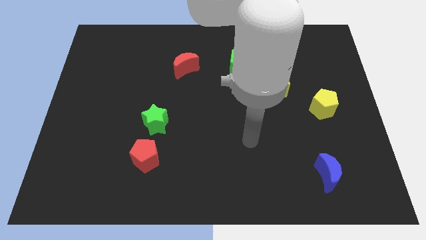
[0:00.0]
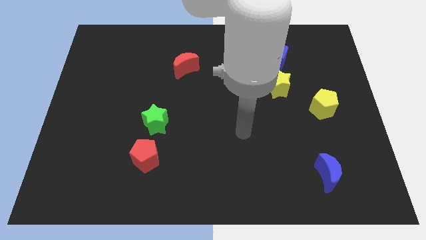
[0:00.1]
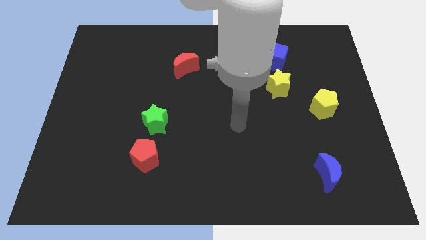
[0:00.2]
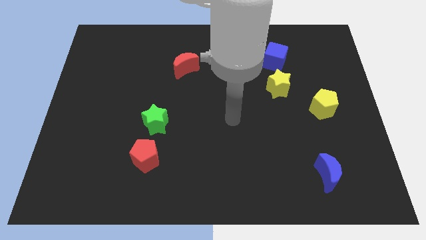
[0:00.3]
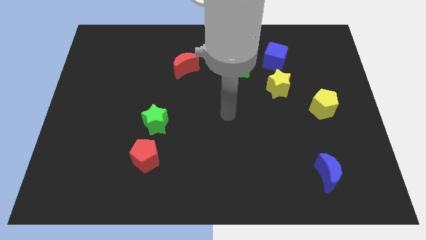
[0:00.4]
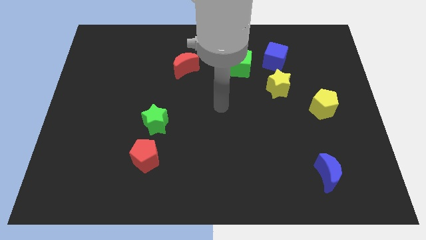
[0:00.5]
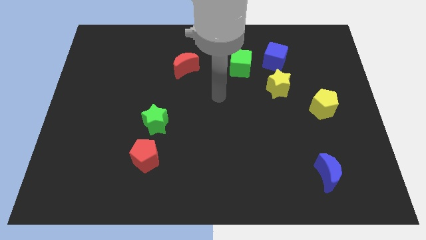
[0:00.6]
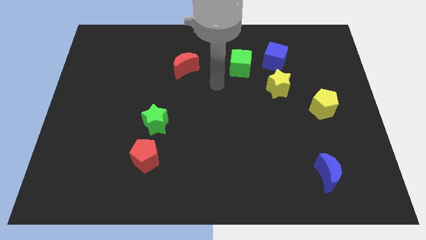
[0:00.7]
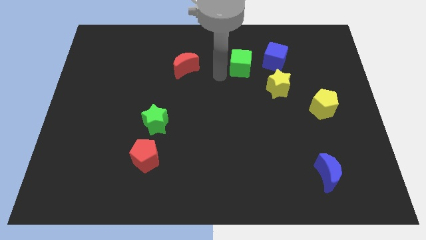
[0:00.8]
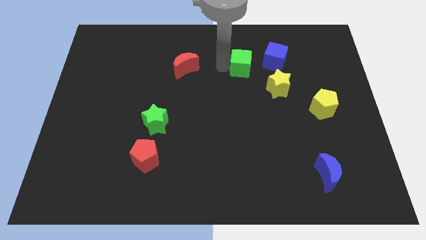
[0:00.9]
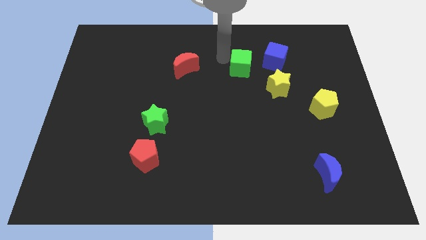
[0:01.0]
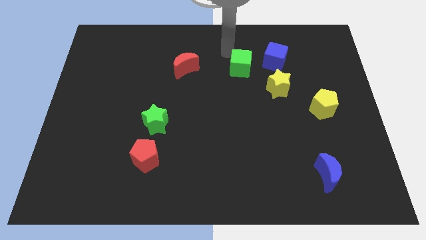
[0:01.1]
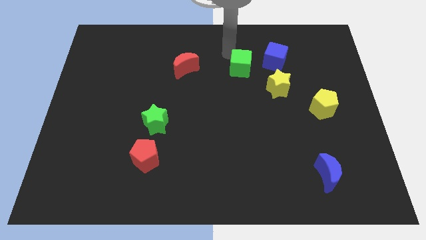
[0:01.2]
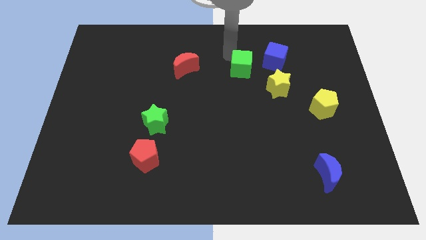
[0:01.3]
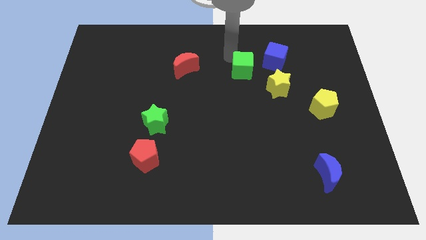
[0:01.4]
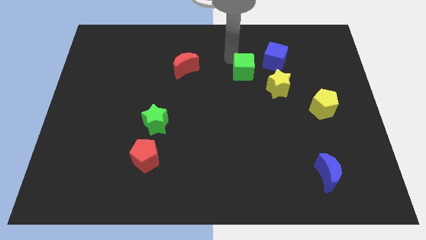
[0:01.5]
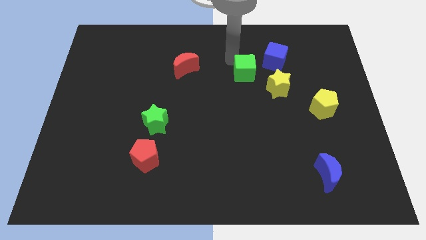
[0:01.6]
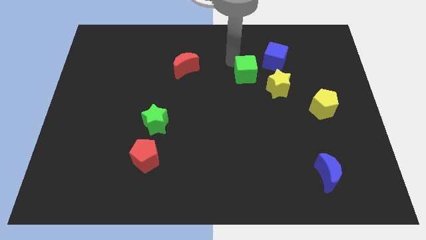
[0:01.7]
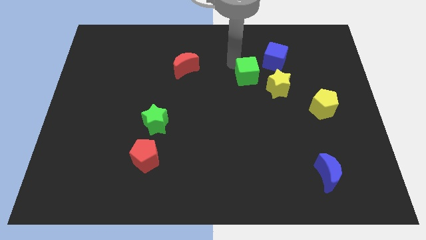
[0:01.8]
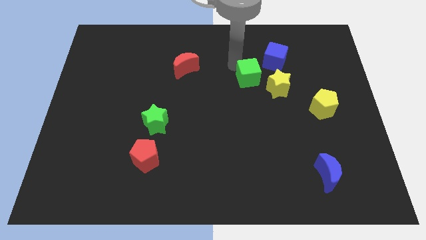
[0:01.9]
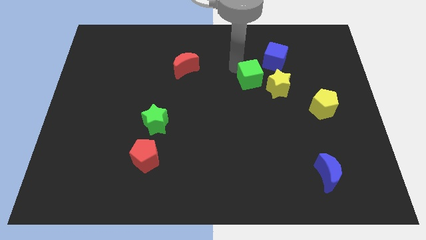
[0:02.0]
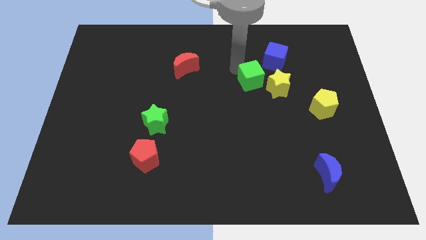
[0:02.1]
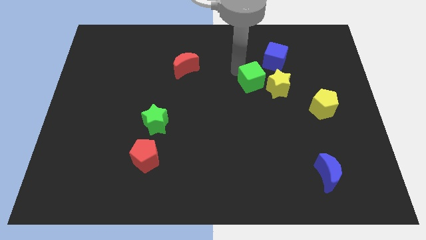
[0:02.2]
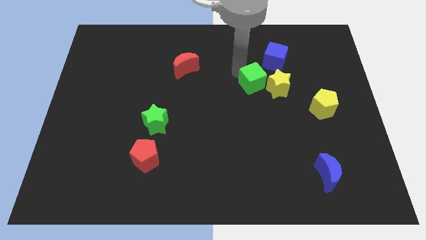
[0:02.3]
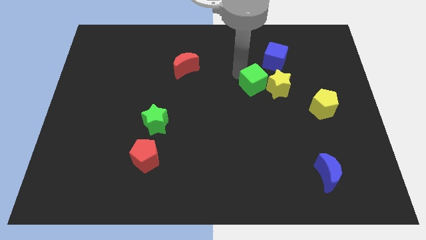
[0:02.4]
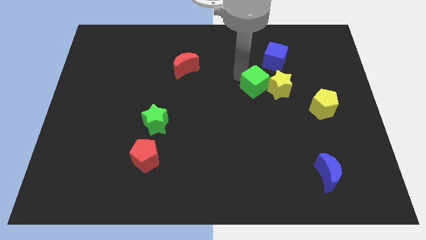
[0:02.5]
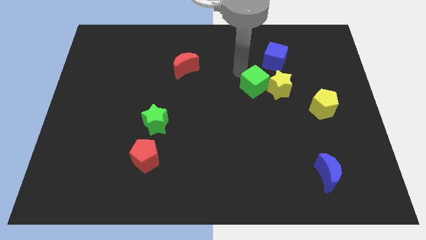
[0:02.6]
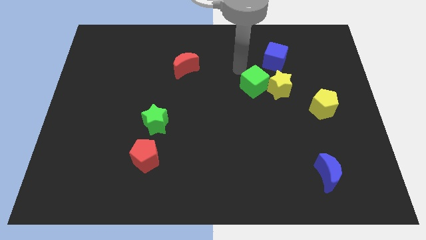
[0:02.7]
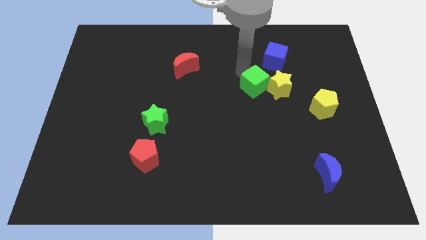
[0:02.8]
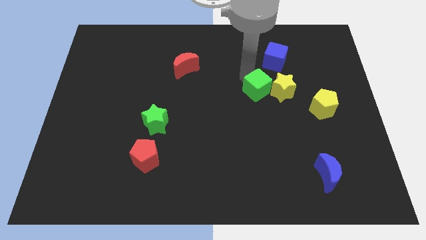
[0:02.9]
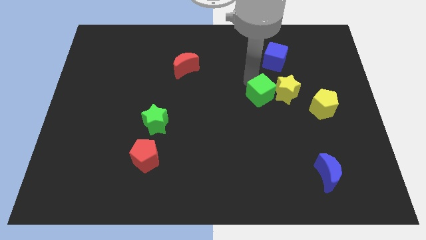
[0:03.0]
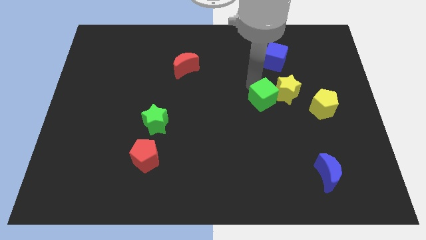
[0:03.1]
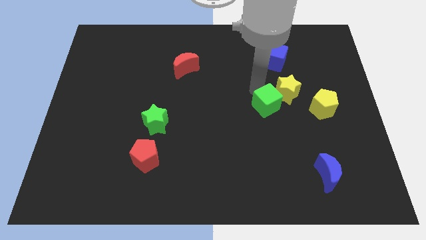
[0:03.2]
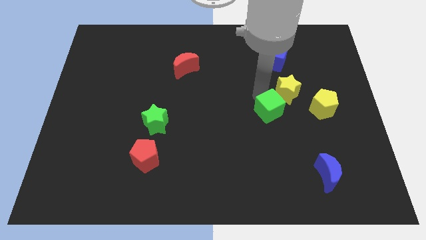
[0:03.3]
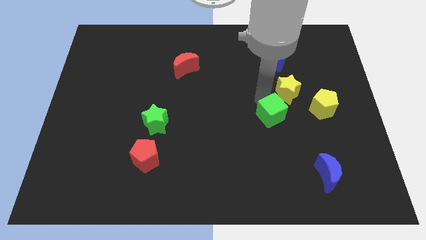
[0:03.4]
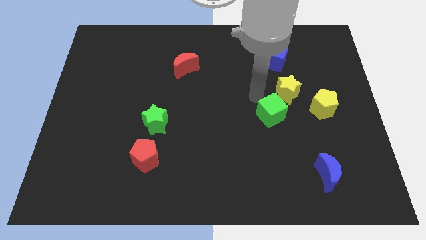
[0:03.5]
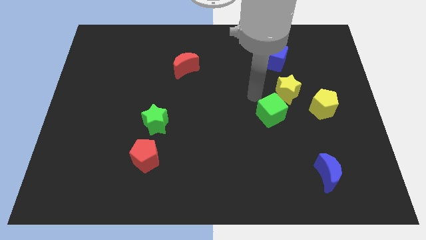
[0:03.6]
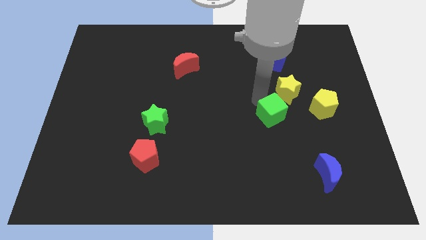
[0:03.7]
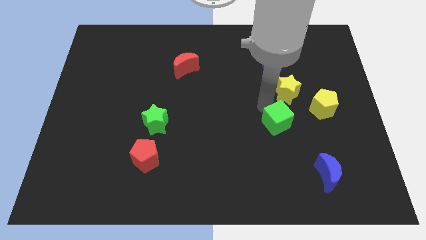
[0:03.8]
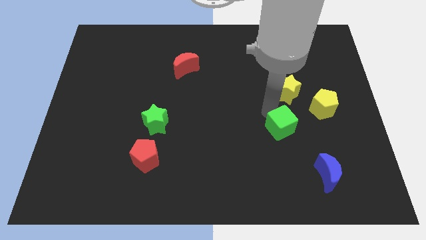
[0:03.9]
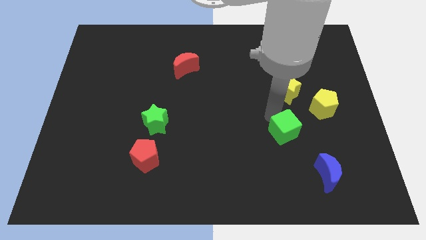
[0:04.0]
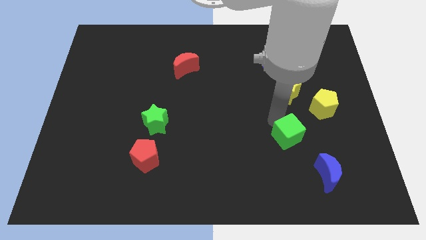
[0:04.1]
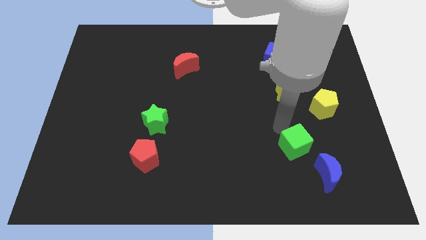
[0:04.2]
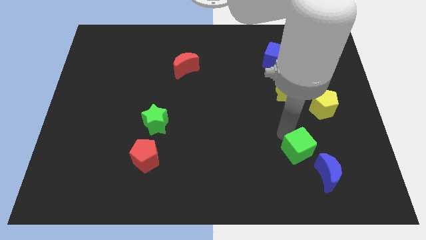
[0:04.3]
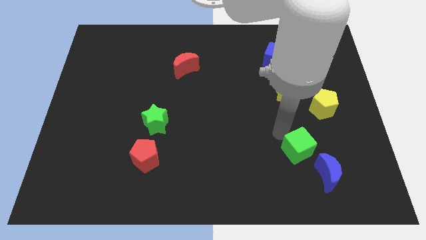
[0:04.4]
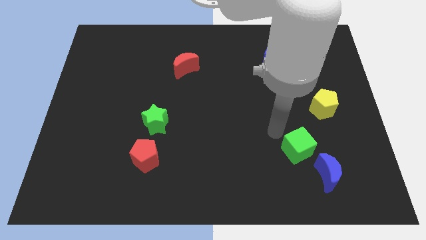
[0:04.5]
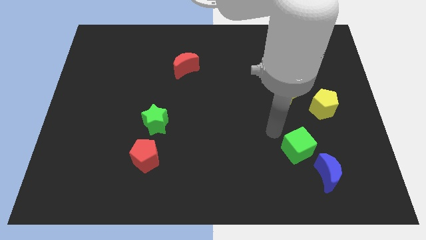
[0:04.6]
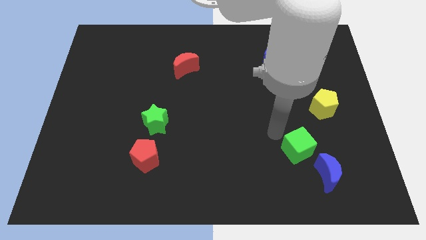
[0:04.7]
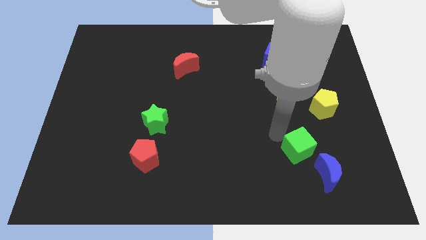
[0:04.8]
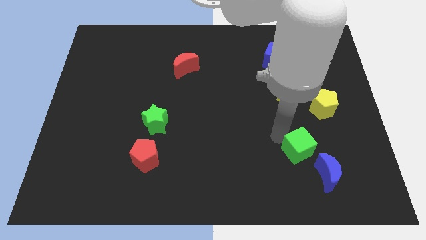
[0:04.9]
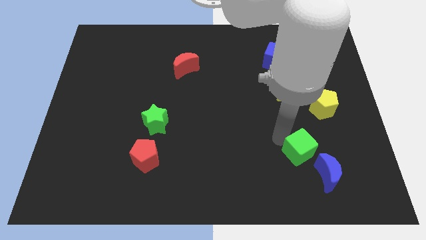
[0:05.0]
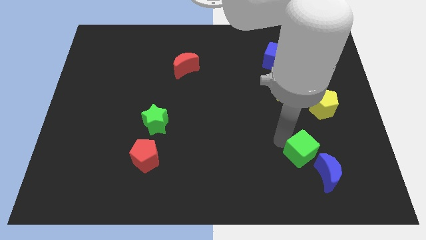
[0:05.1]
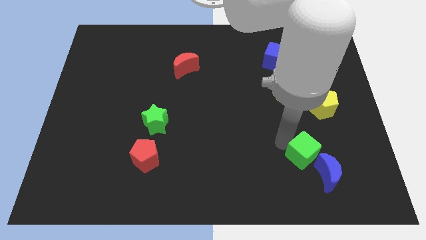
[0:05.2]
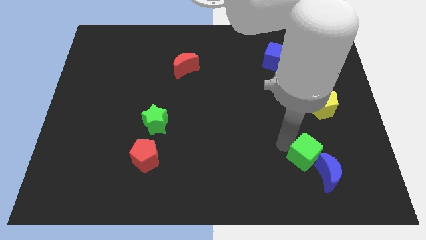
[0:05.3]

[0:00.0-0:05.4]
slide the green cube to the blue moon
